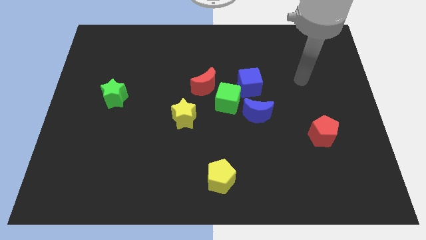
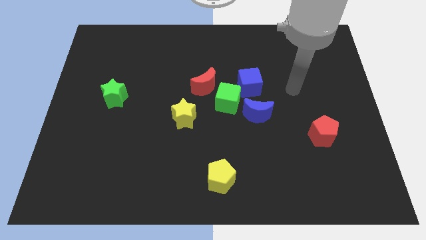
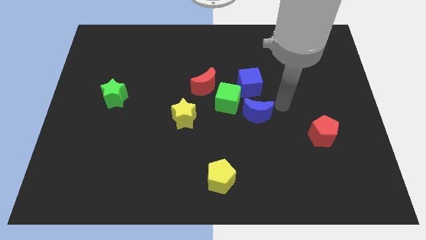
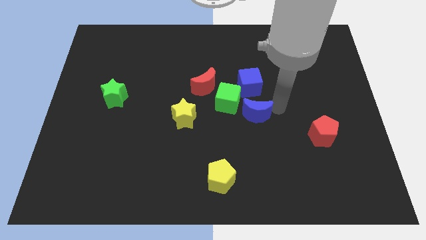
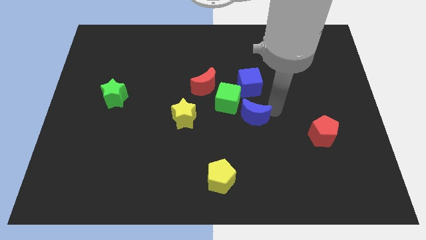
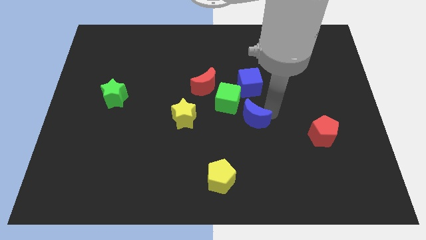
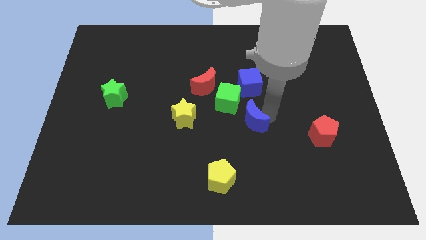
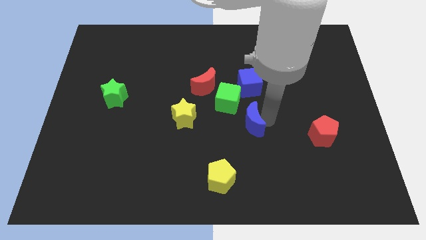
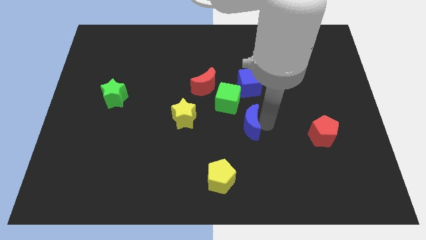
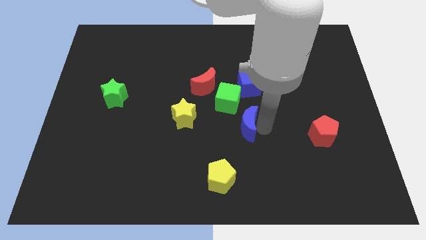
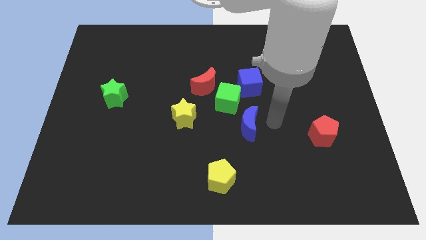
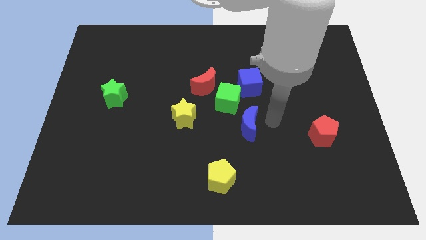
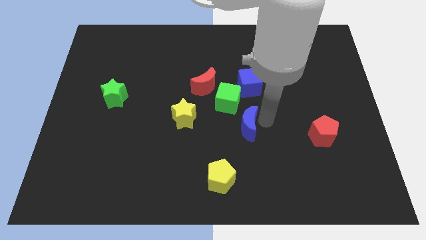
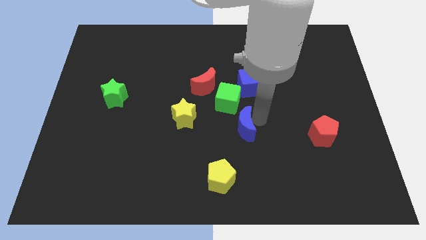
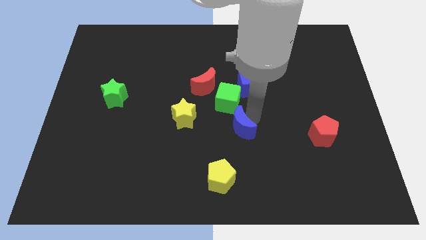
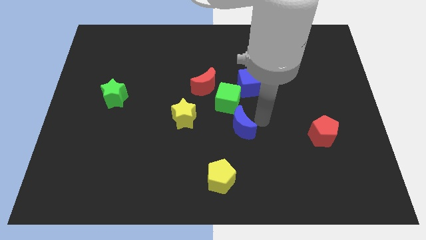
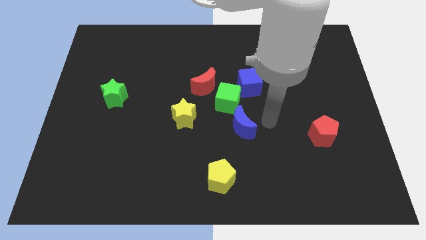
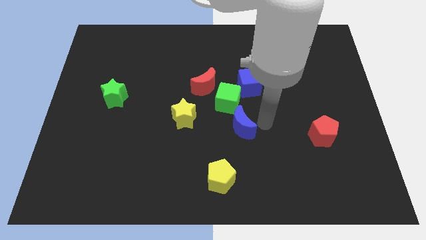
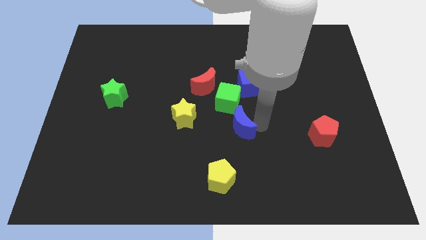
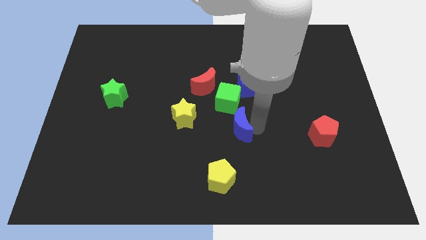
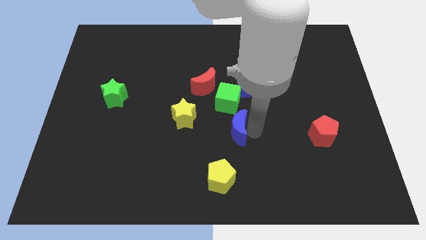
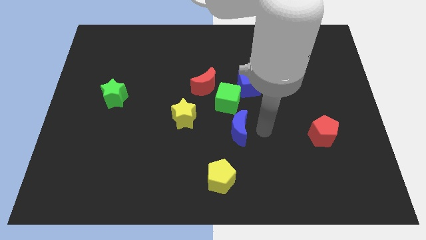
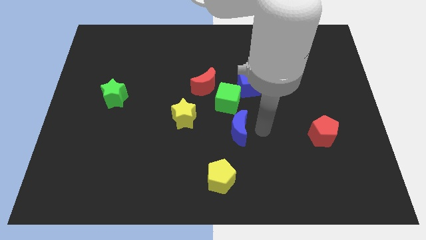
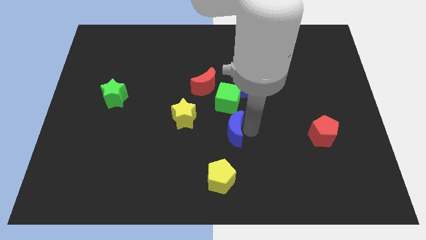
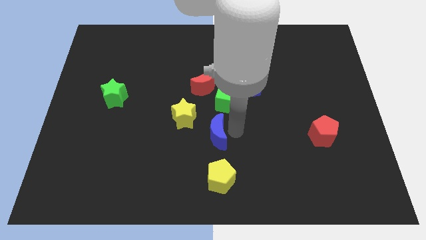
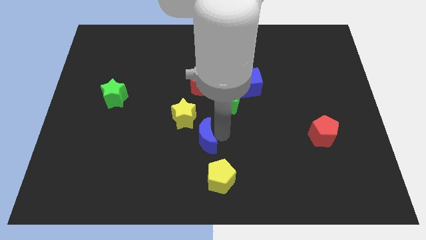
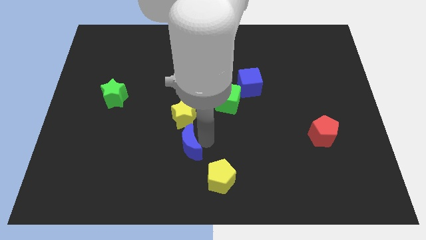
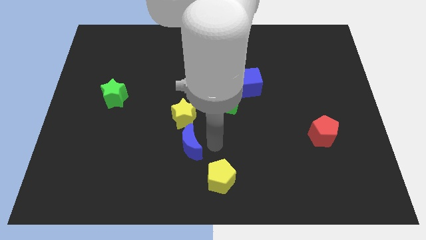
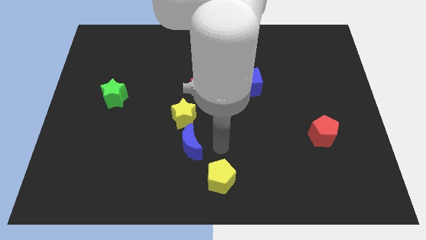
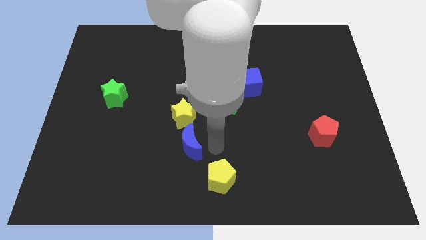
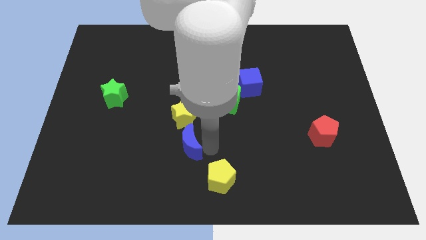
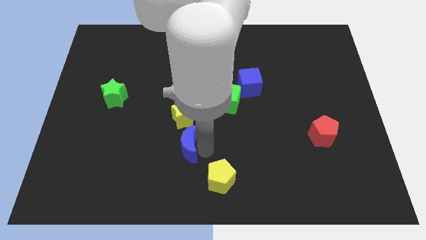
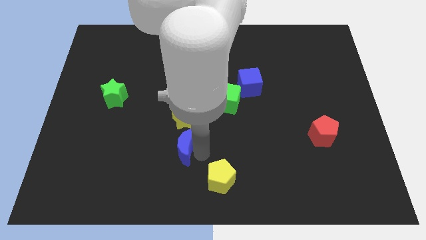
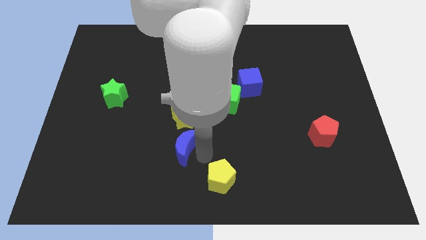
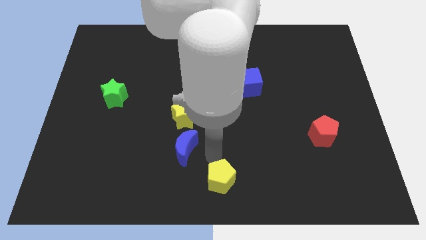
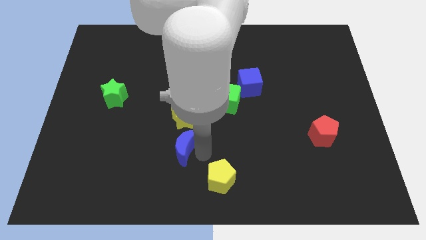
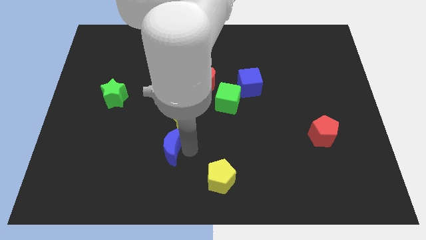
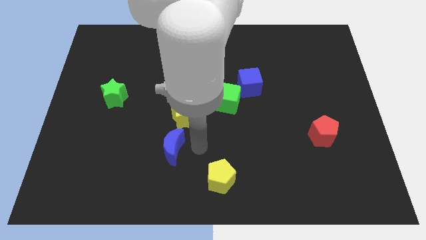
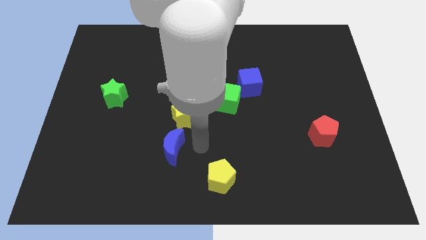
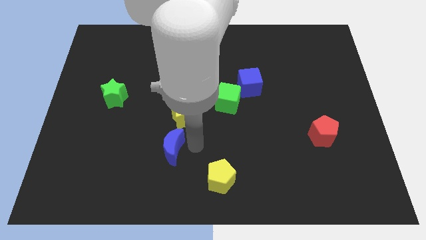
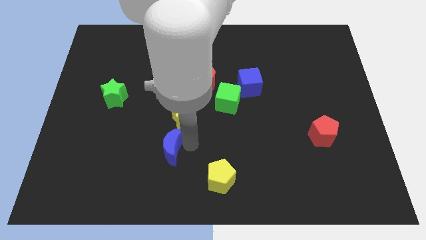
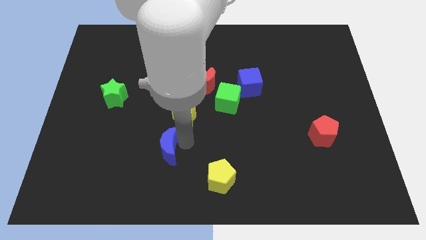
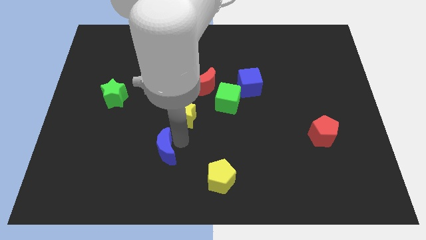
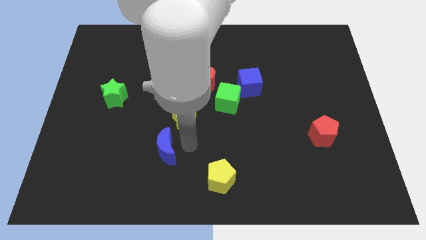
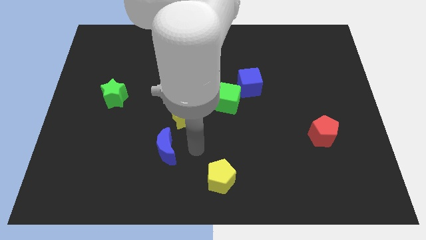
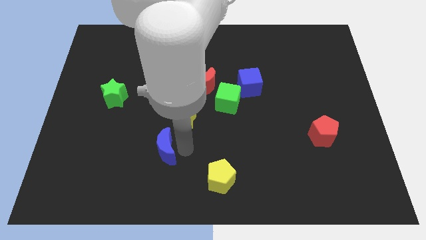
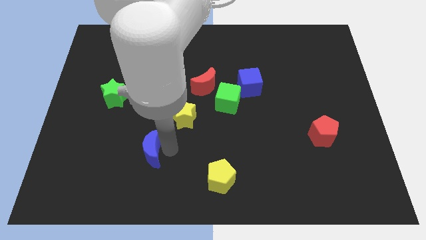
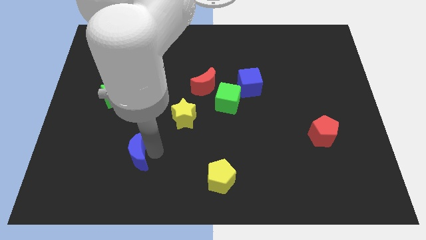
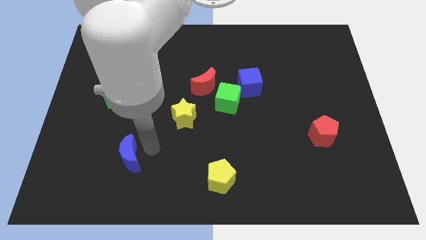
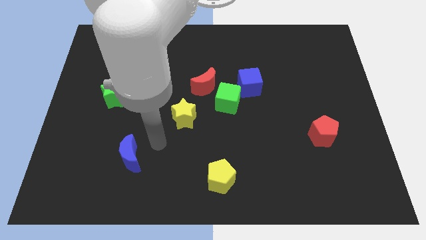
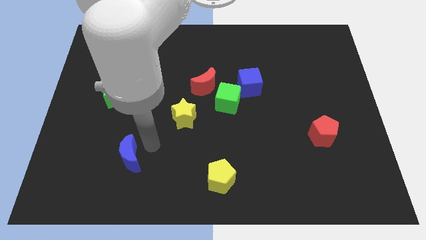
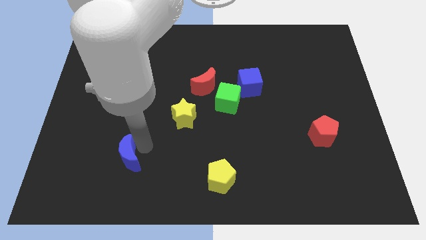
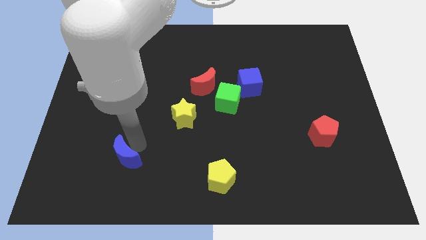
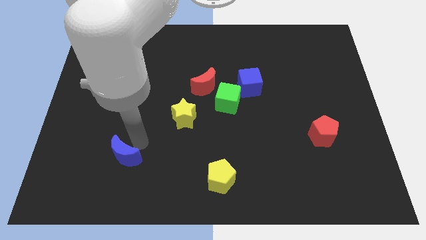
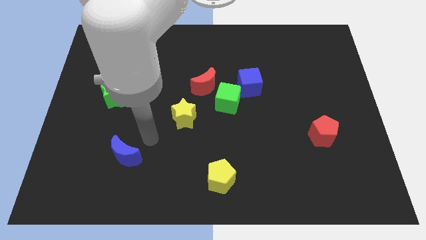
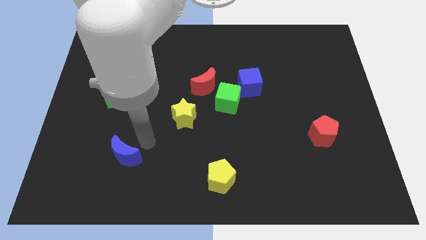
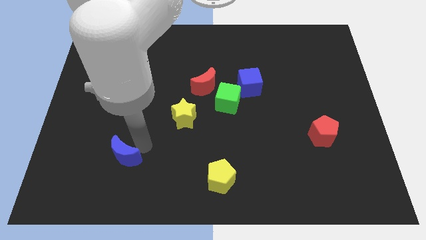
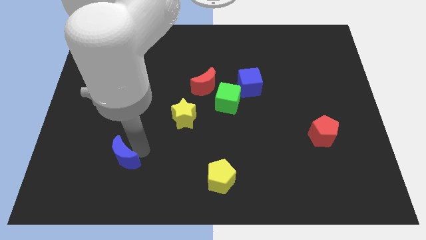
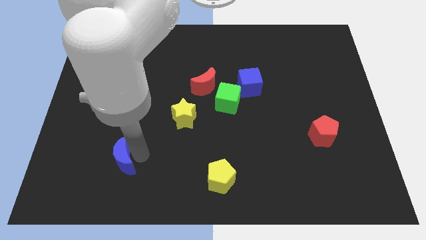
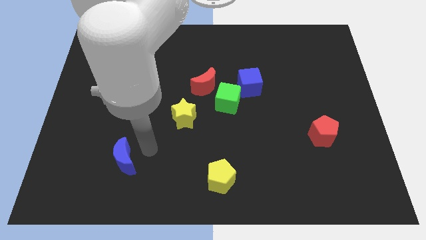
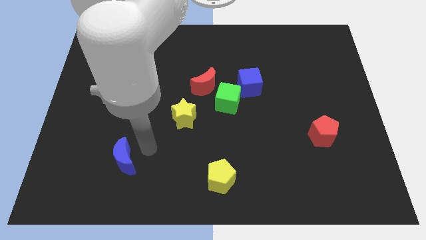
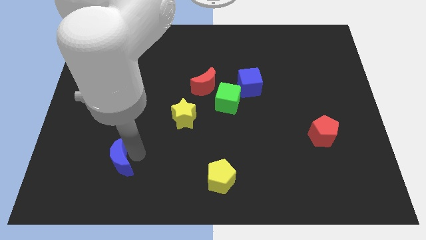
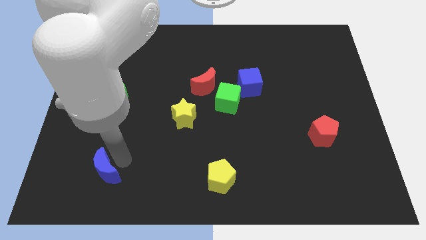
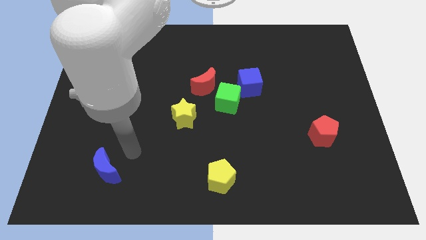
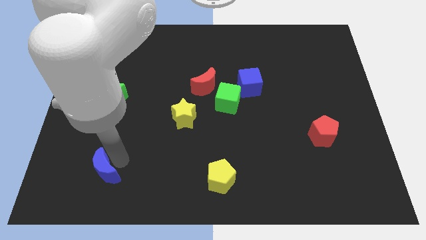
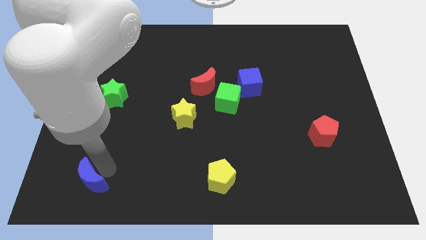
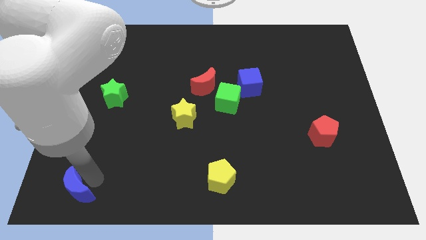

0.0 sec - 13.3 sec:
push the blue moon to the bottom left

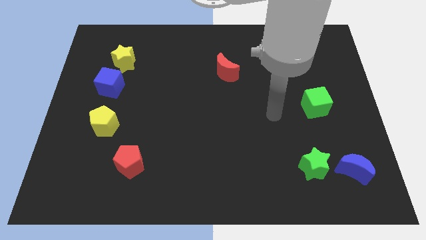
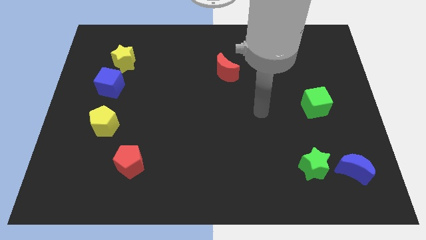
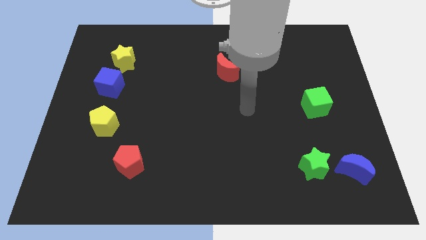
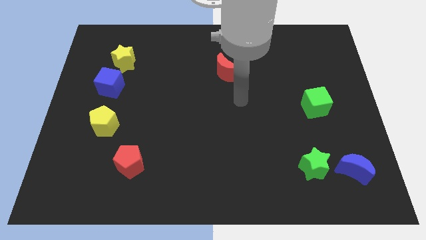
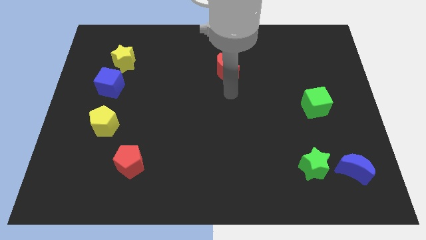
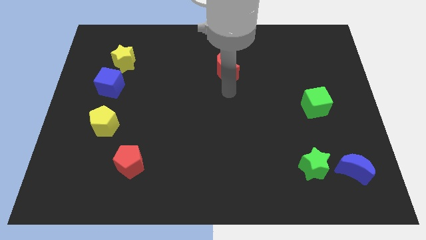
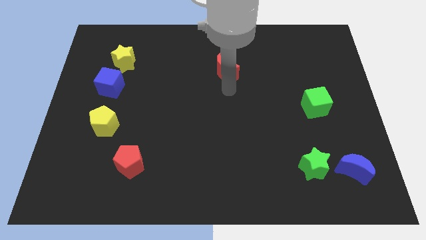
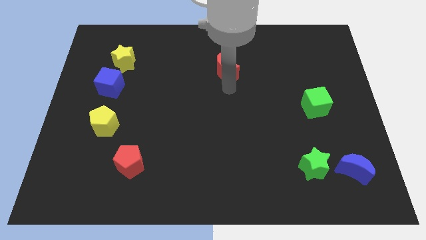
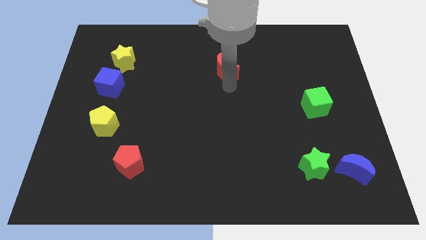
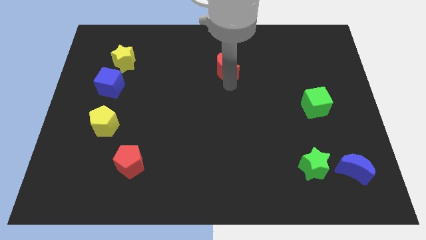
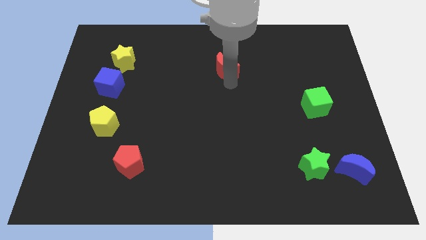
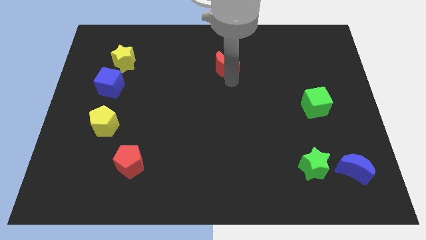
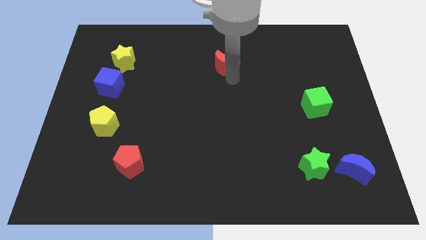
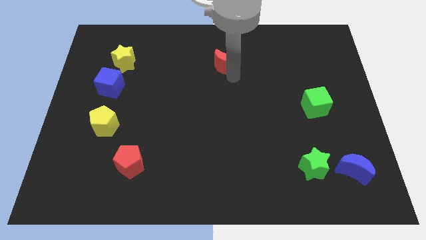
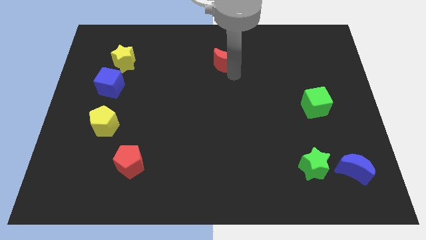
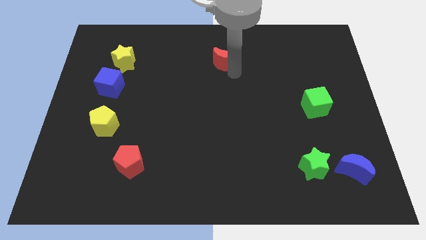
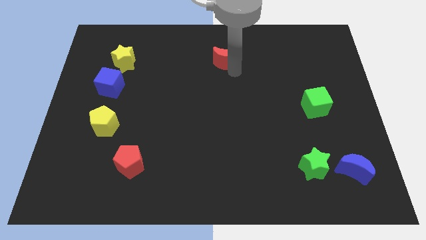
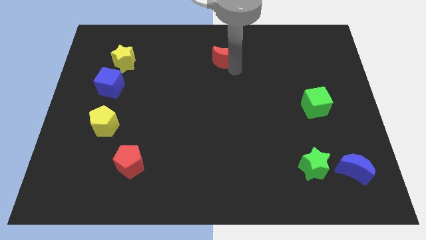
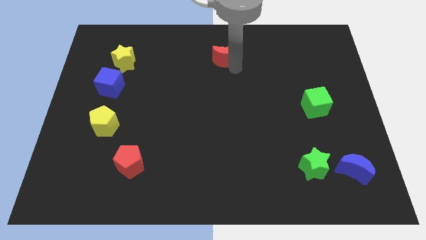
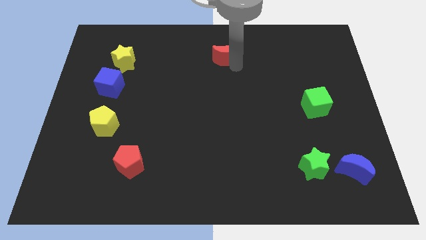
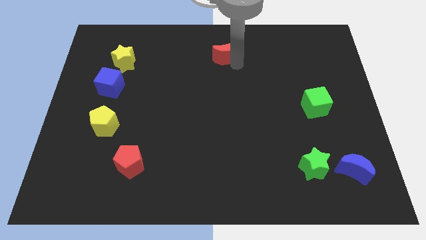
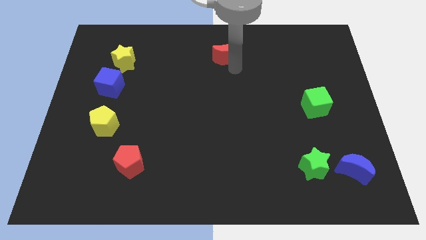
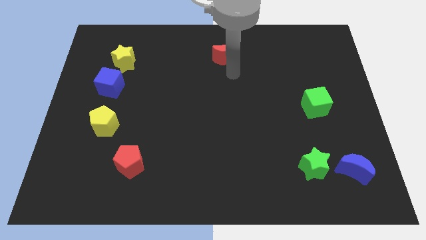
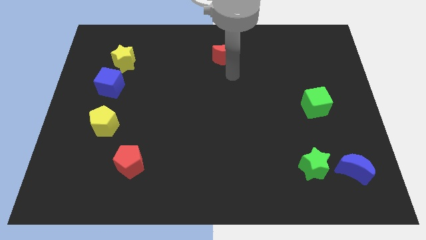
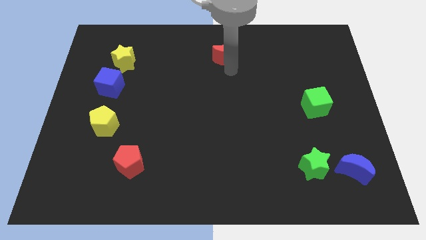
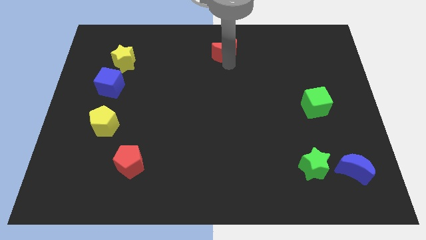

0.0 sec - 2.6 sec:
move the red moon to the top side
